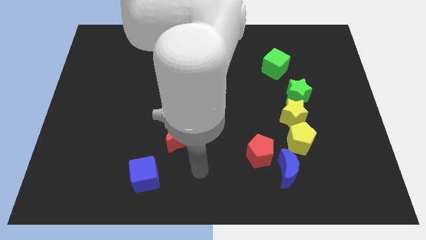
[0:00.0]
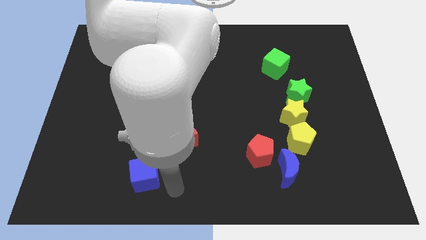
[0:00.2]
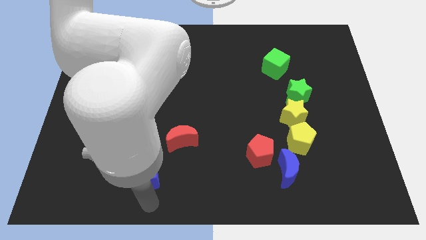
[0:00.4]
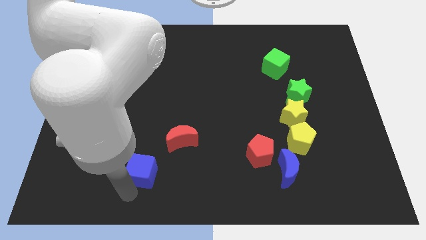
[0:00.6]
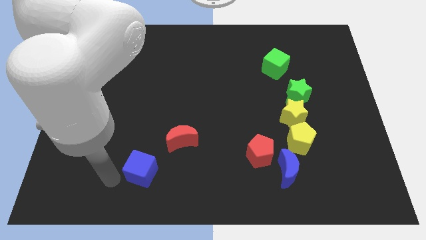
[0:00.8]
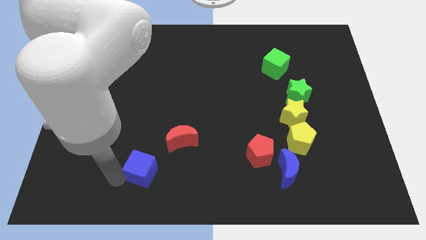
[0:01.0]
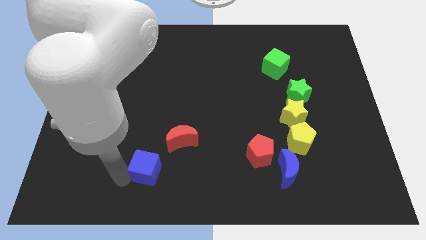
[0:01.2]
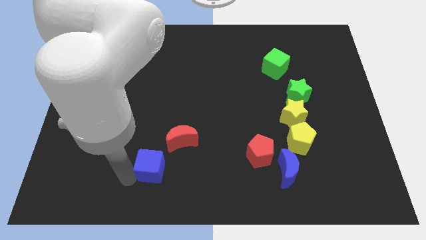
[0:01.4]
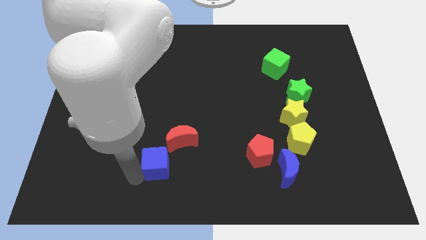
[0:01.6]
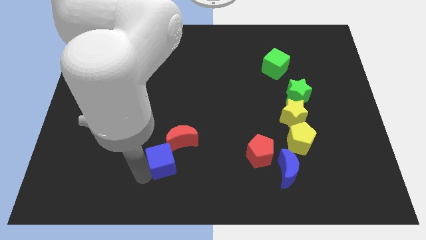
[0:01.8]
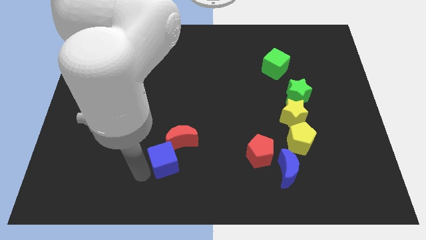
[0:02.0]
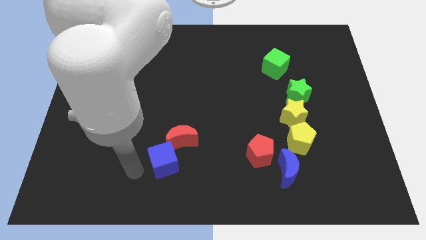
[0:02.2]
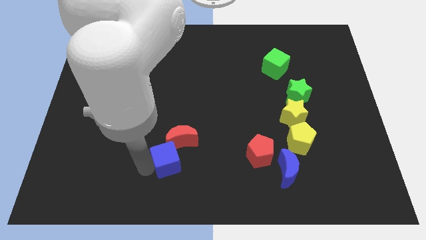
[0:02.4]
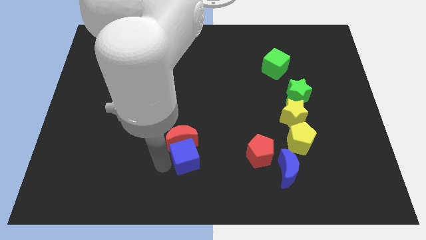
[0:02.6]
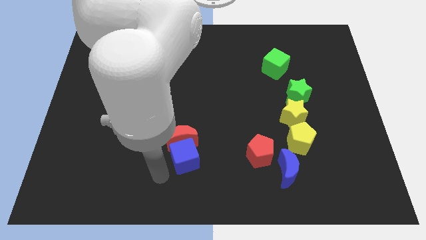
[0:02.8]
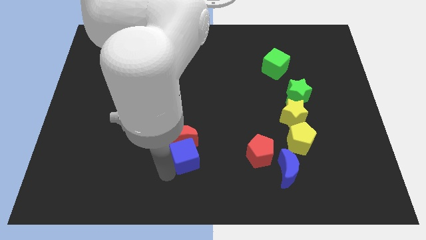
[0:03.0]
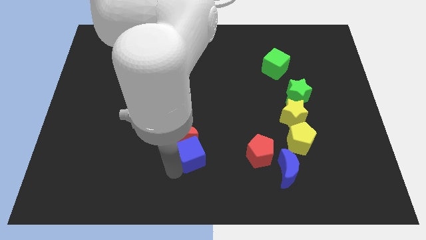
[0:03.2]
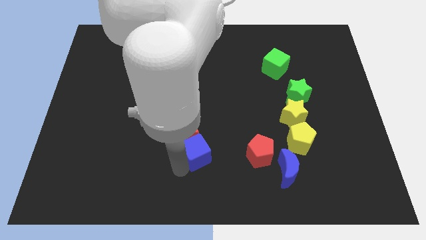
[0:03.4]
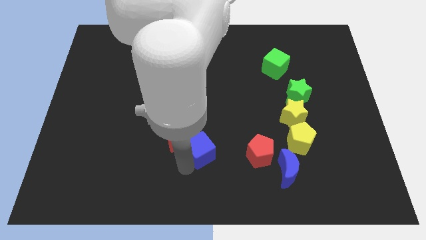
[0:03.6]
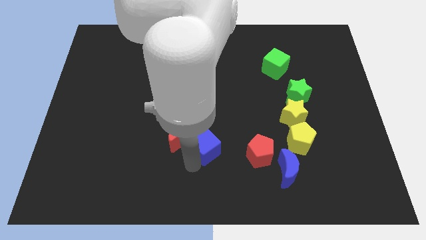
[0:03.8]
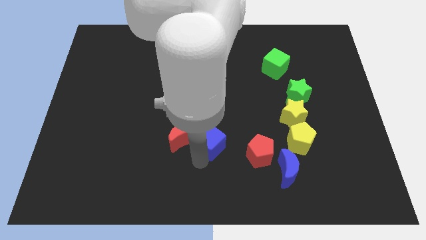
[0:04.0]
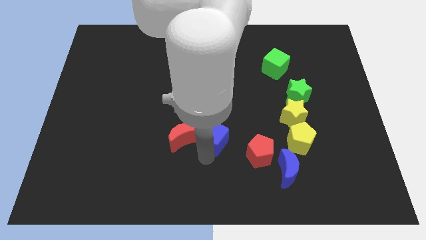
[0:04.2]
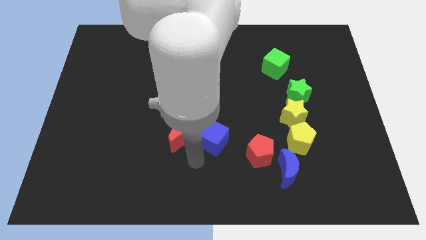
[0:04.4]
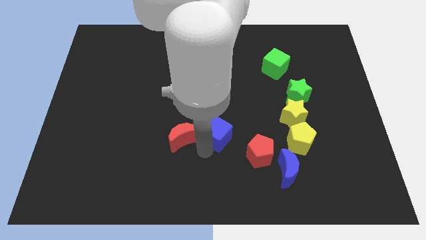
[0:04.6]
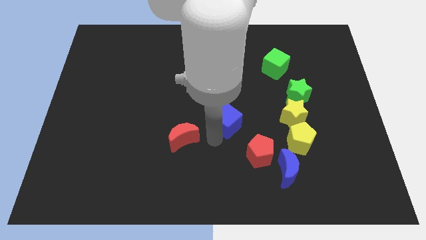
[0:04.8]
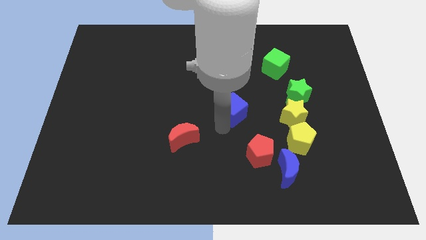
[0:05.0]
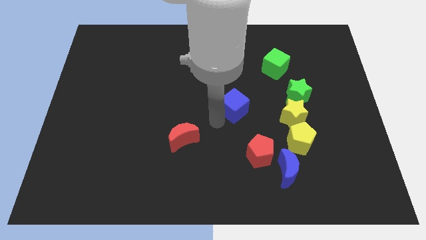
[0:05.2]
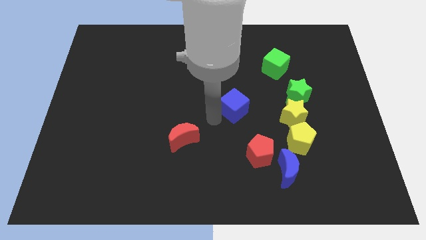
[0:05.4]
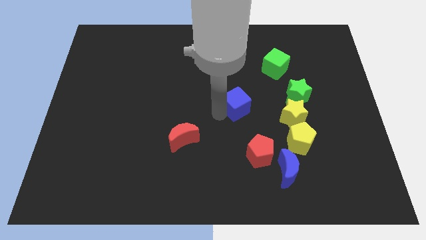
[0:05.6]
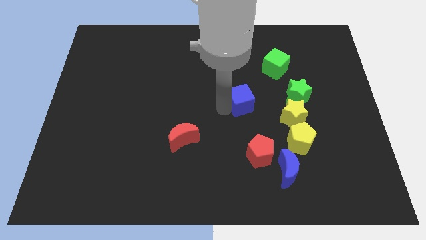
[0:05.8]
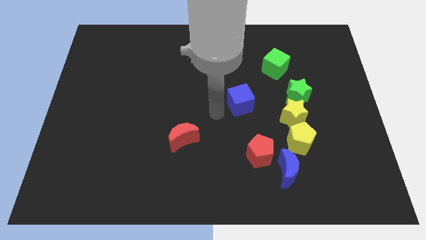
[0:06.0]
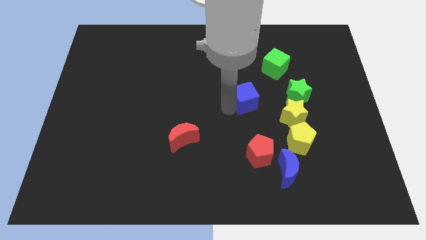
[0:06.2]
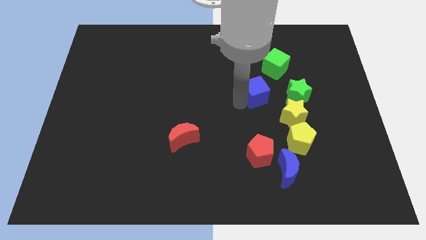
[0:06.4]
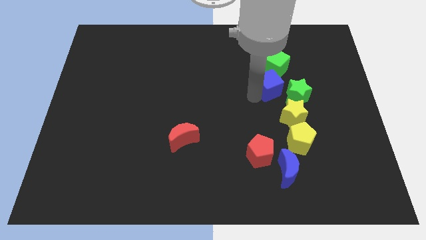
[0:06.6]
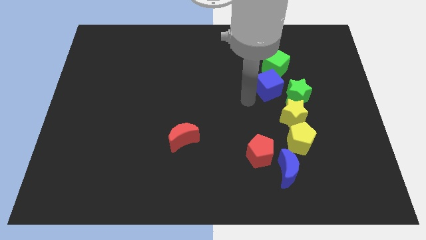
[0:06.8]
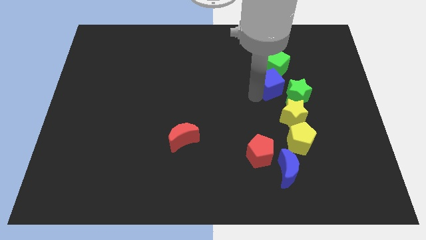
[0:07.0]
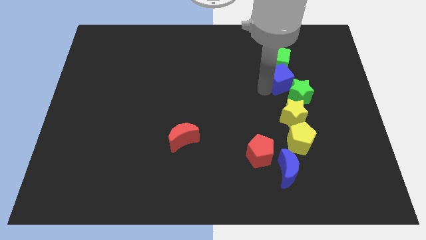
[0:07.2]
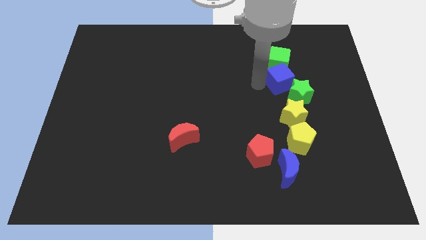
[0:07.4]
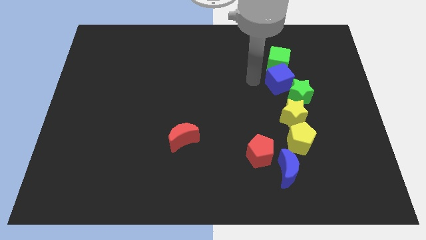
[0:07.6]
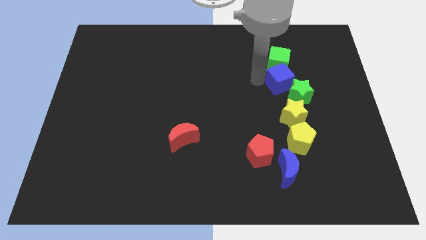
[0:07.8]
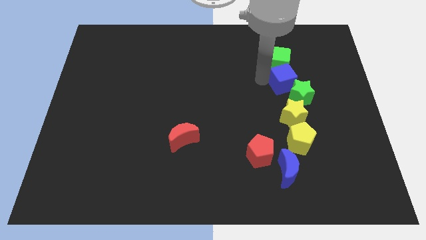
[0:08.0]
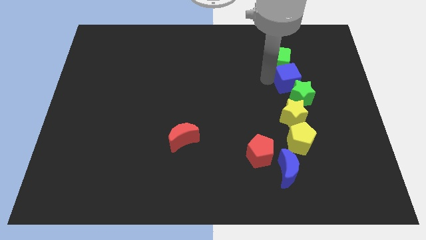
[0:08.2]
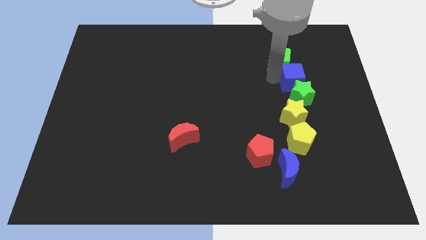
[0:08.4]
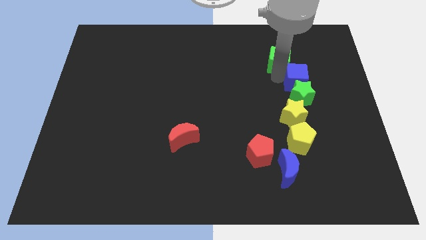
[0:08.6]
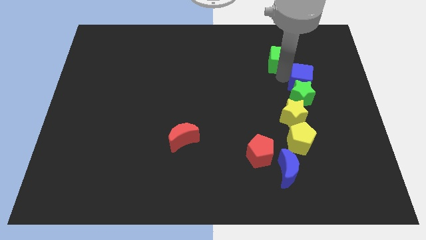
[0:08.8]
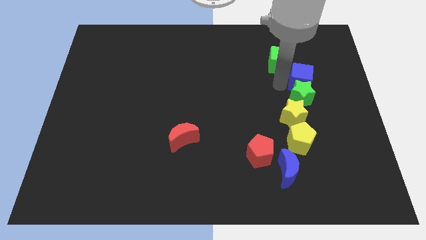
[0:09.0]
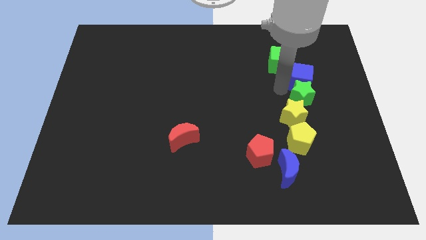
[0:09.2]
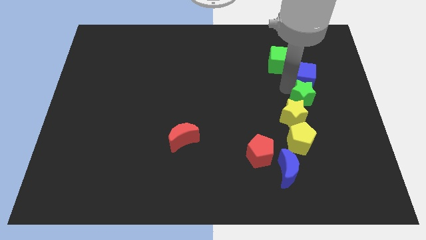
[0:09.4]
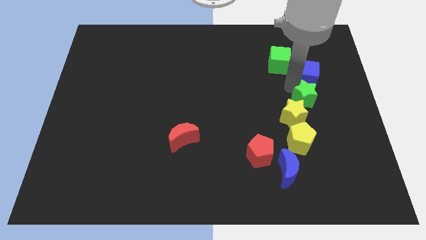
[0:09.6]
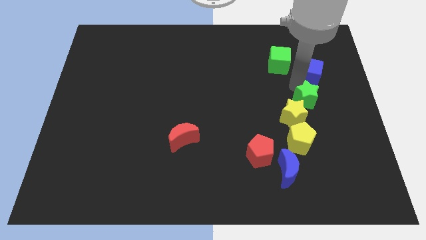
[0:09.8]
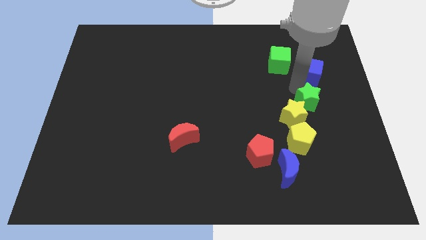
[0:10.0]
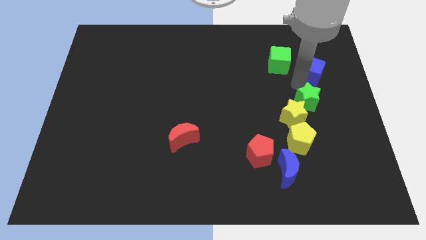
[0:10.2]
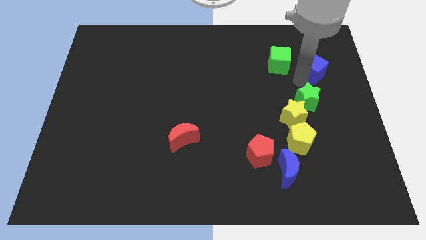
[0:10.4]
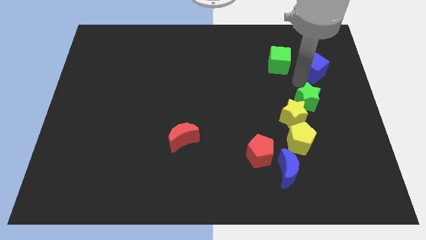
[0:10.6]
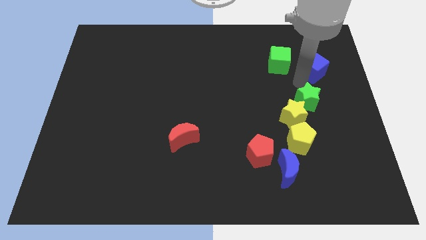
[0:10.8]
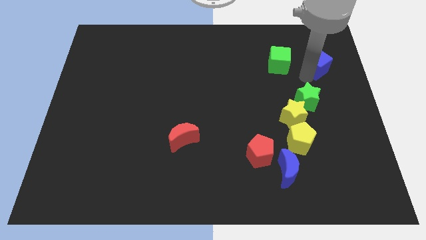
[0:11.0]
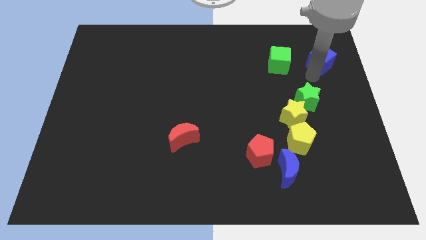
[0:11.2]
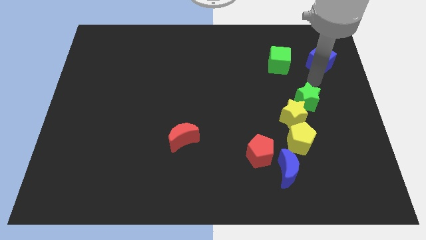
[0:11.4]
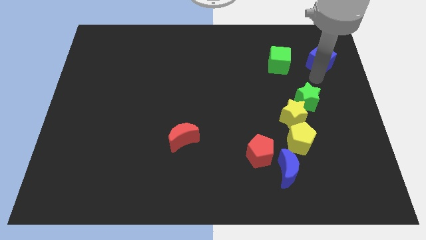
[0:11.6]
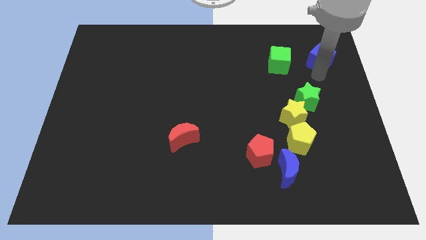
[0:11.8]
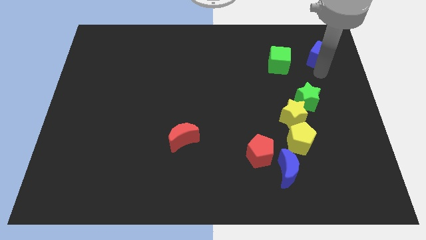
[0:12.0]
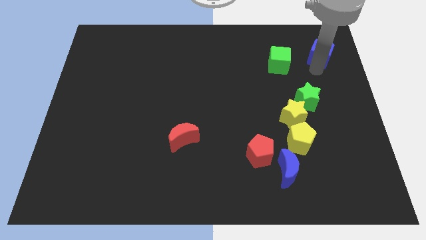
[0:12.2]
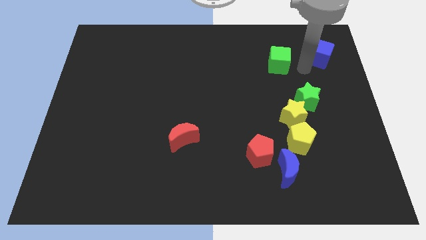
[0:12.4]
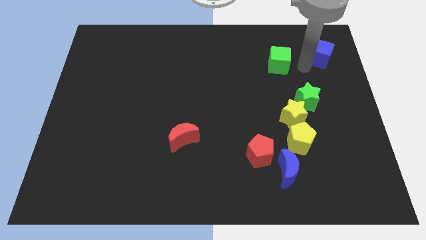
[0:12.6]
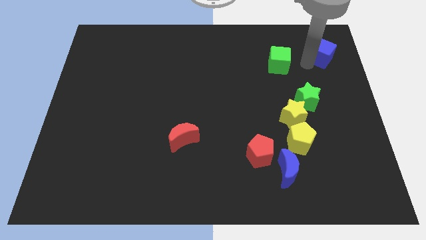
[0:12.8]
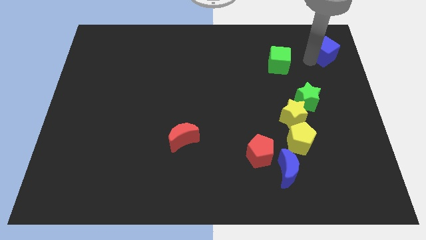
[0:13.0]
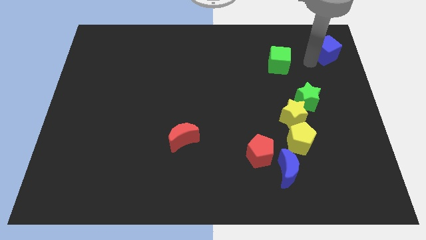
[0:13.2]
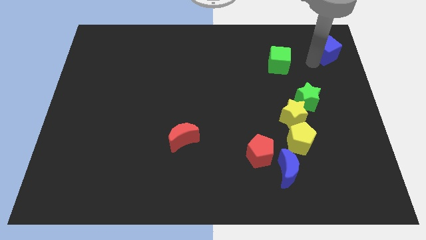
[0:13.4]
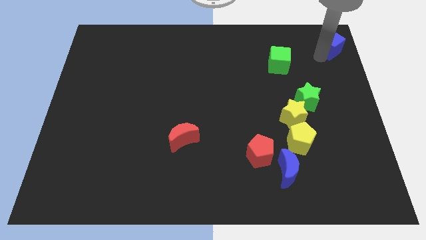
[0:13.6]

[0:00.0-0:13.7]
slide the blue cube to the top right of the board
